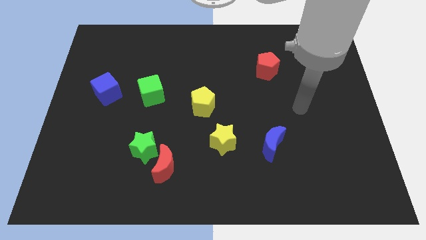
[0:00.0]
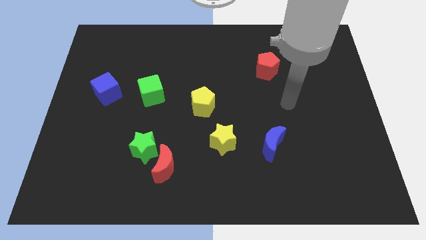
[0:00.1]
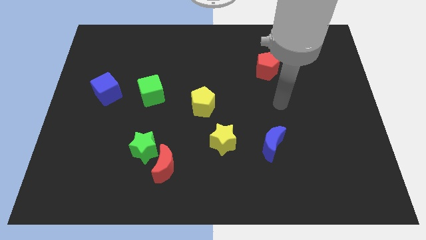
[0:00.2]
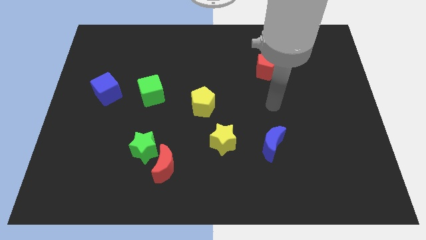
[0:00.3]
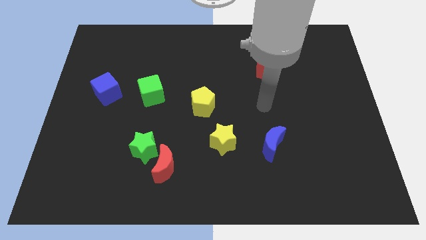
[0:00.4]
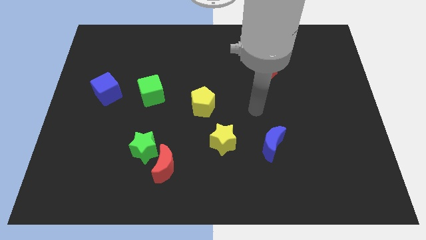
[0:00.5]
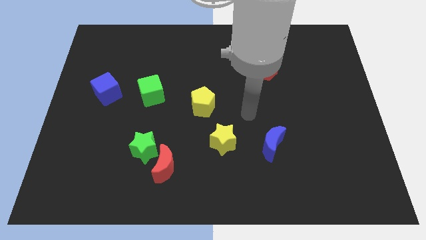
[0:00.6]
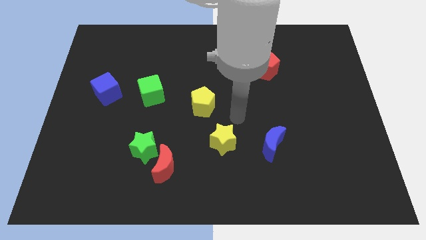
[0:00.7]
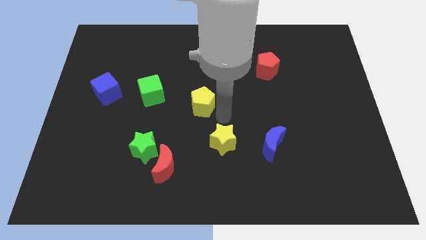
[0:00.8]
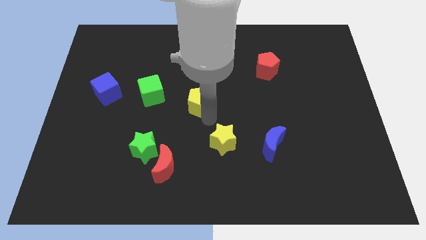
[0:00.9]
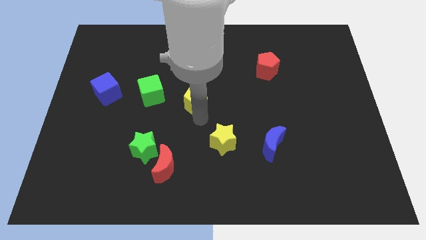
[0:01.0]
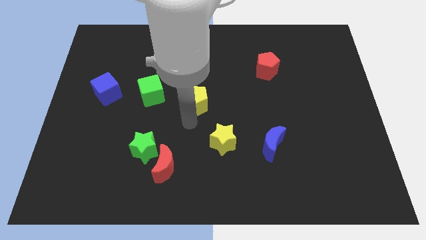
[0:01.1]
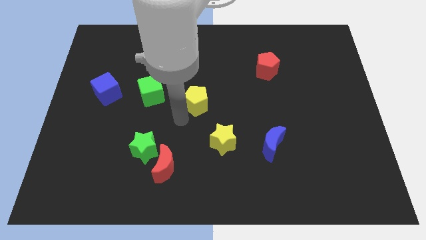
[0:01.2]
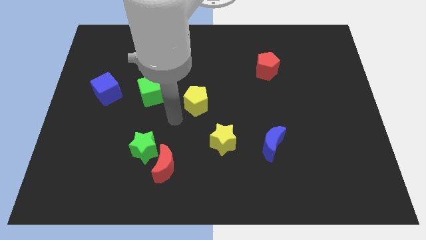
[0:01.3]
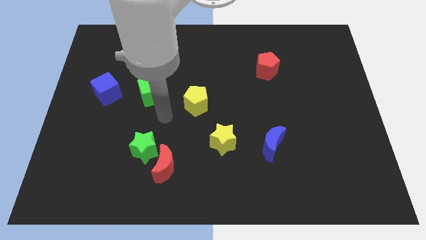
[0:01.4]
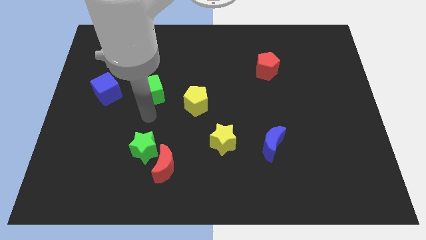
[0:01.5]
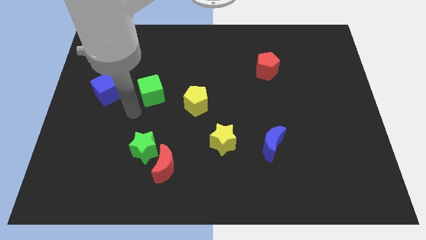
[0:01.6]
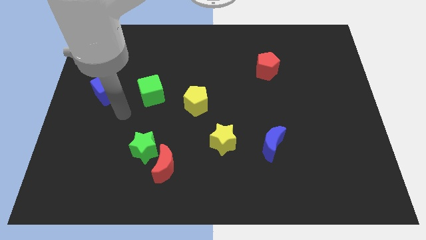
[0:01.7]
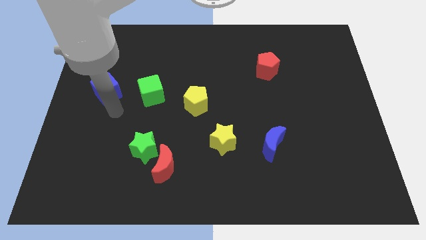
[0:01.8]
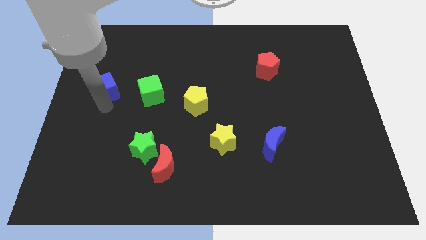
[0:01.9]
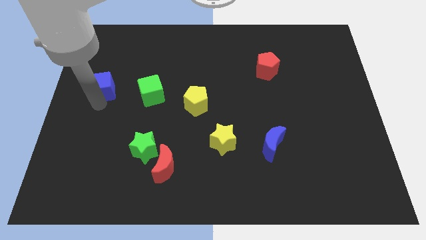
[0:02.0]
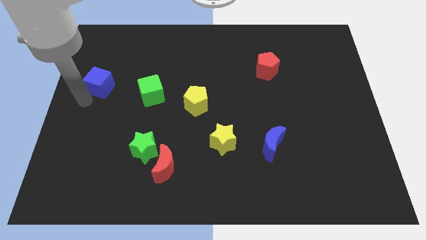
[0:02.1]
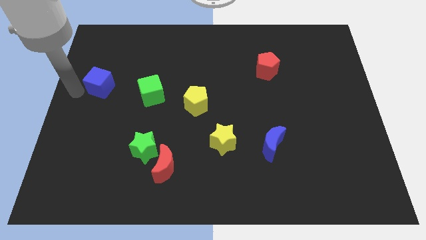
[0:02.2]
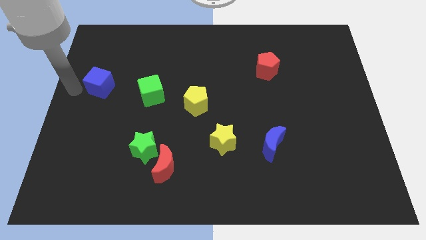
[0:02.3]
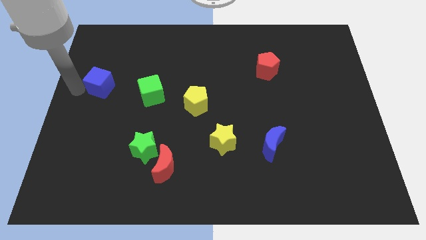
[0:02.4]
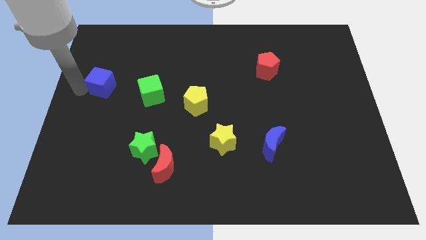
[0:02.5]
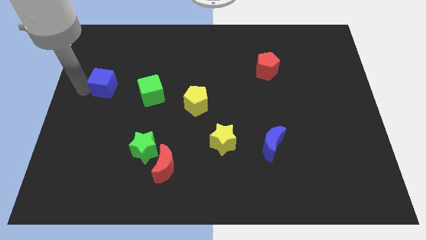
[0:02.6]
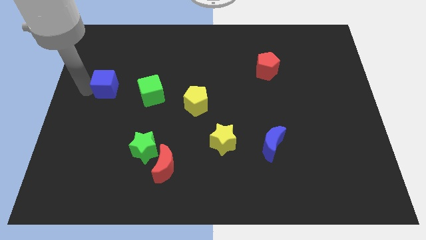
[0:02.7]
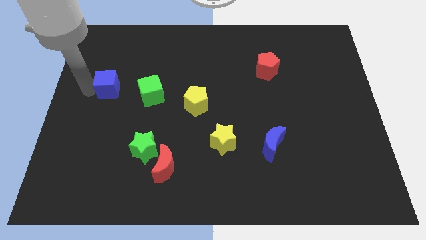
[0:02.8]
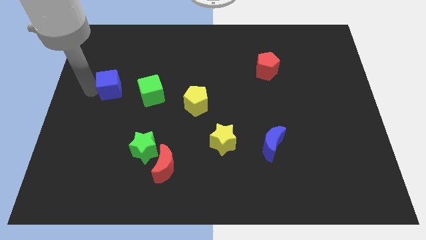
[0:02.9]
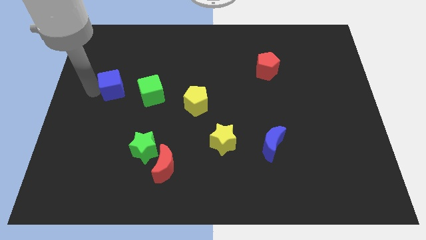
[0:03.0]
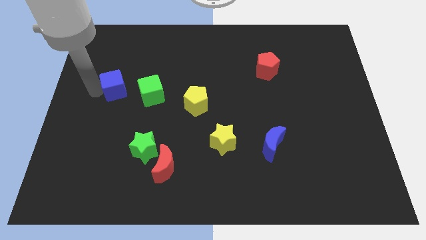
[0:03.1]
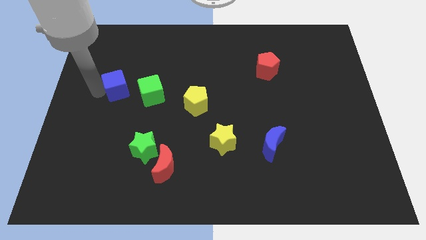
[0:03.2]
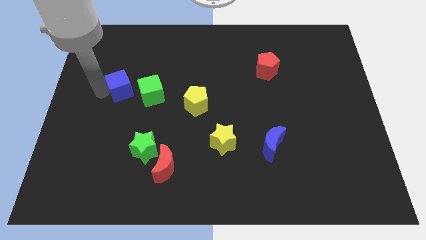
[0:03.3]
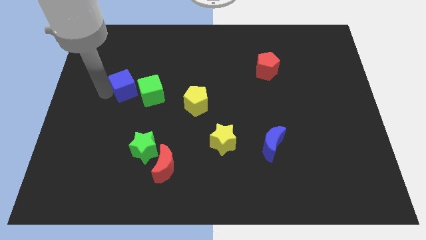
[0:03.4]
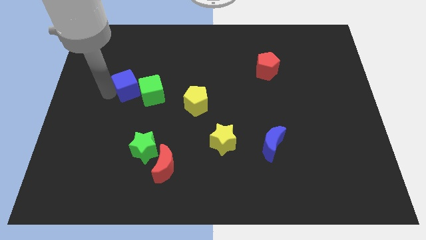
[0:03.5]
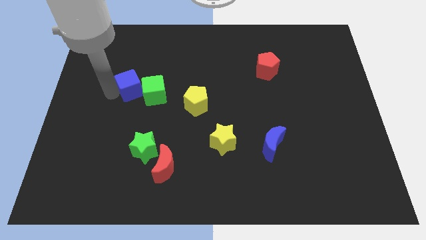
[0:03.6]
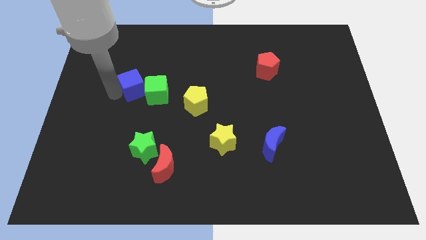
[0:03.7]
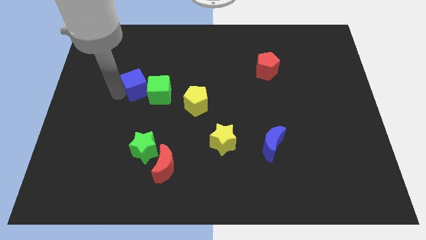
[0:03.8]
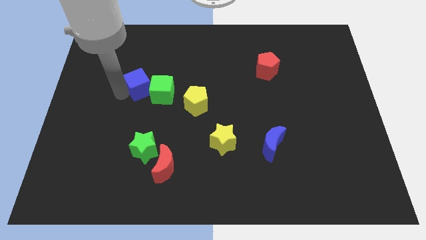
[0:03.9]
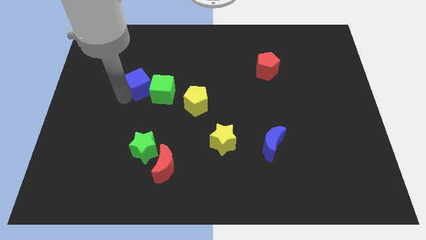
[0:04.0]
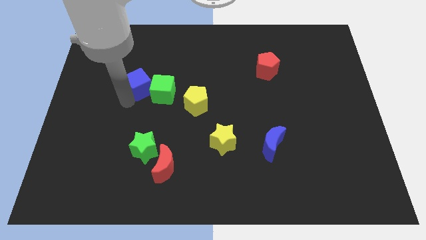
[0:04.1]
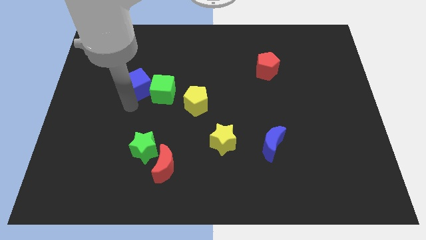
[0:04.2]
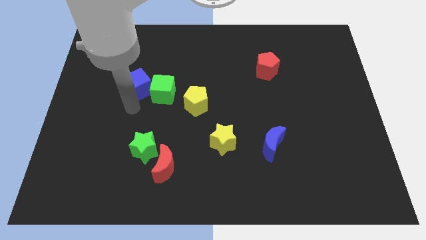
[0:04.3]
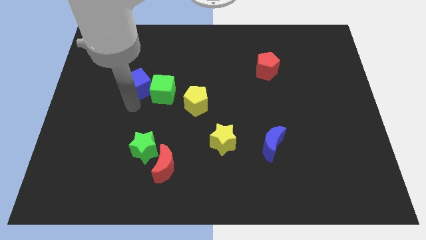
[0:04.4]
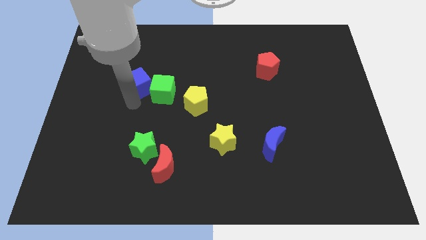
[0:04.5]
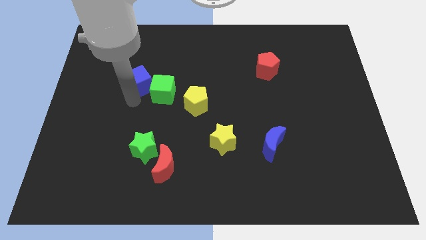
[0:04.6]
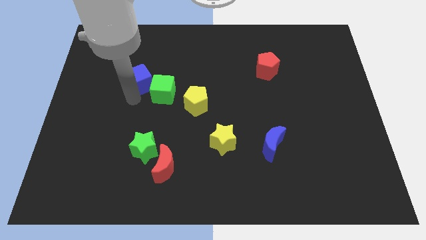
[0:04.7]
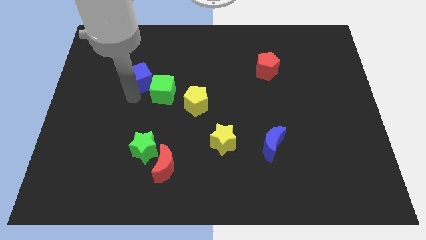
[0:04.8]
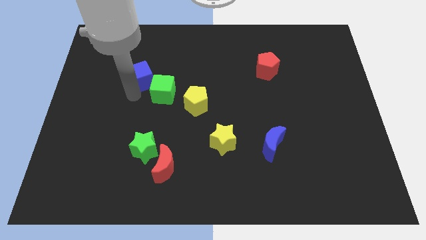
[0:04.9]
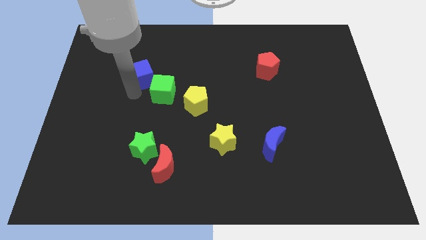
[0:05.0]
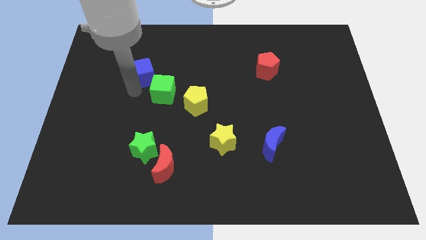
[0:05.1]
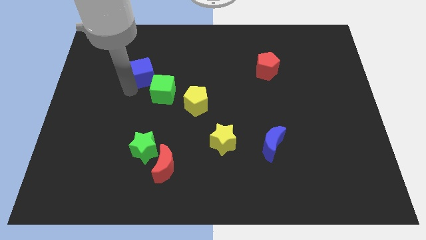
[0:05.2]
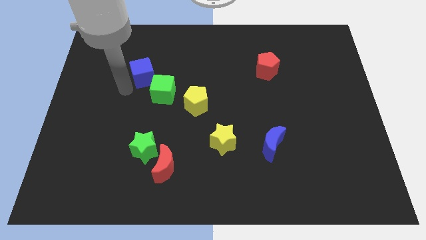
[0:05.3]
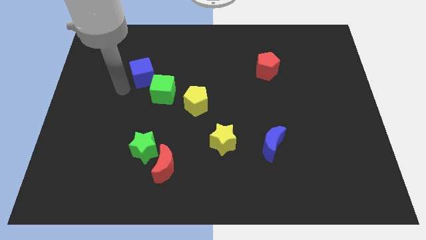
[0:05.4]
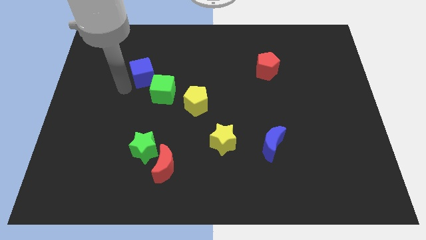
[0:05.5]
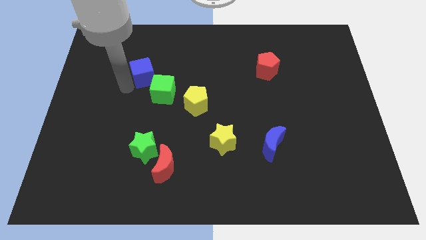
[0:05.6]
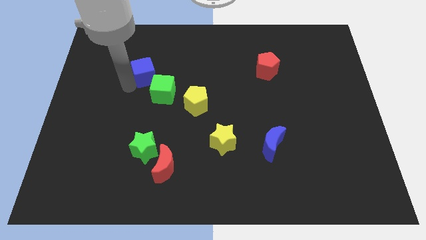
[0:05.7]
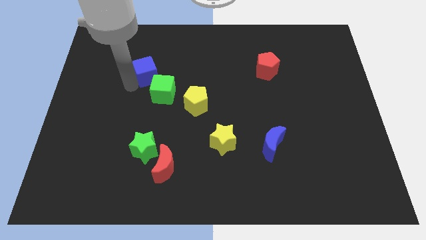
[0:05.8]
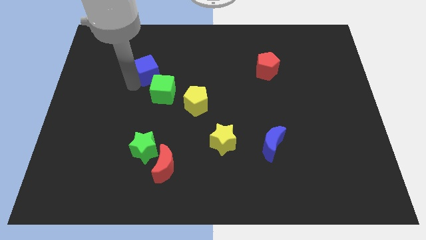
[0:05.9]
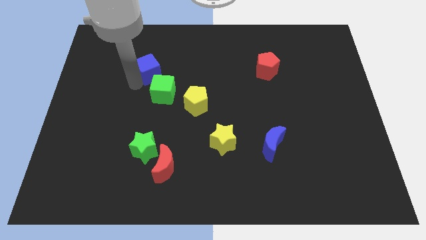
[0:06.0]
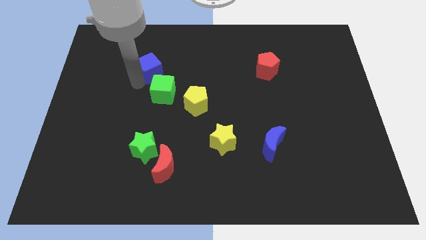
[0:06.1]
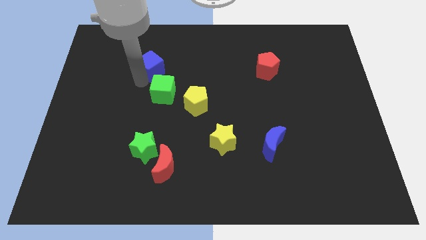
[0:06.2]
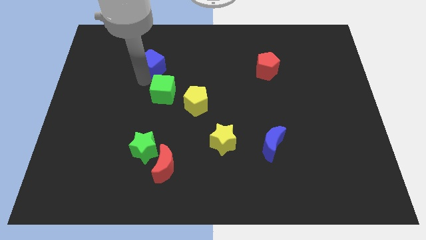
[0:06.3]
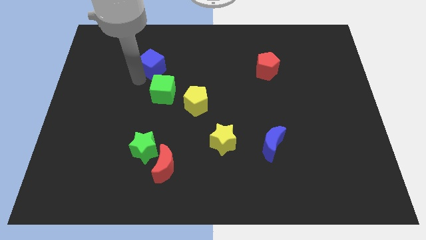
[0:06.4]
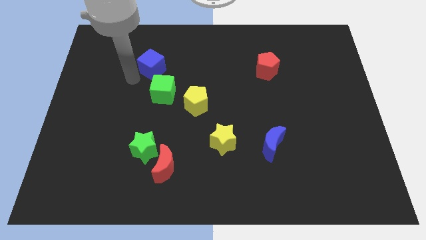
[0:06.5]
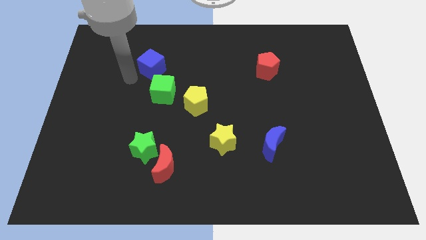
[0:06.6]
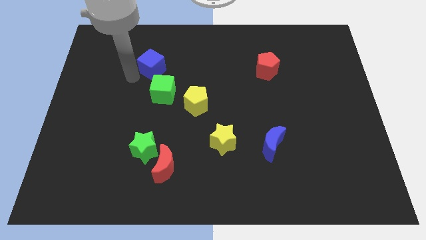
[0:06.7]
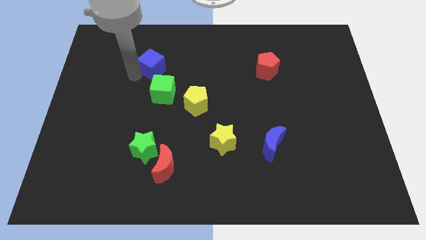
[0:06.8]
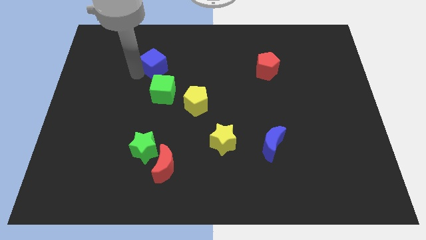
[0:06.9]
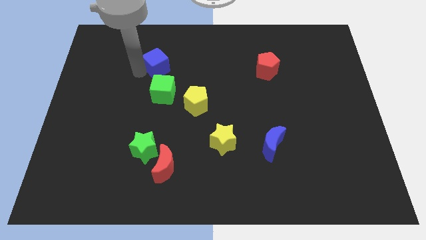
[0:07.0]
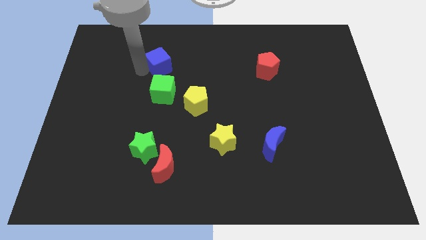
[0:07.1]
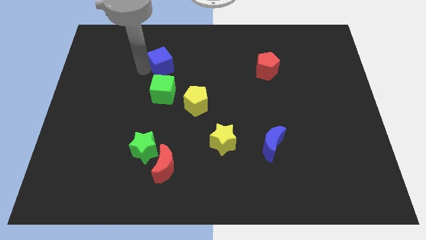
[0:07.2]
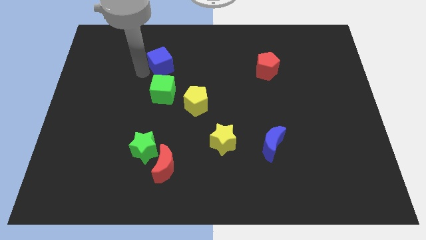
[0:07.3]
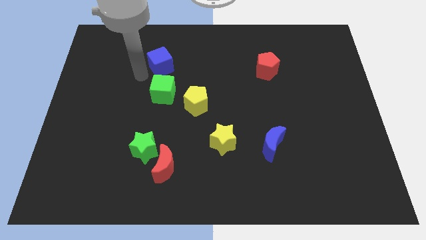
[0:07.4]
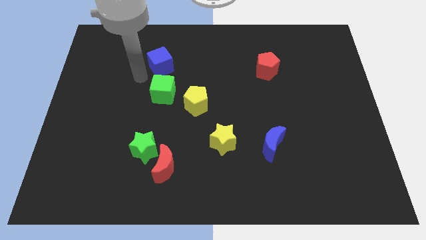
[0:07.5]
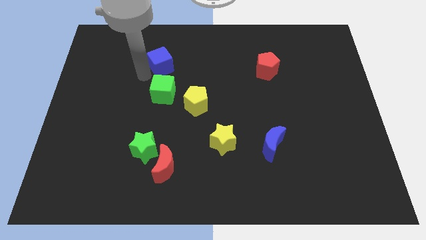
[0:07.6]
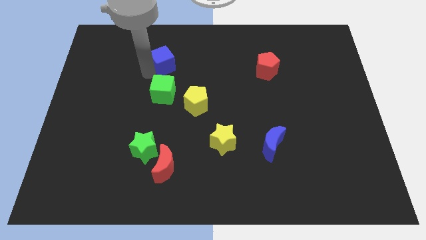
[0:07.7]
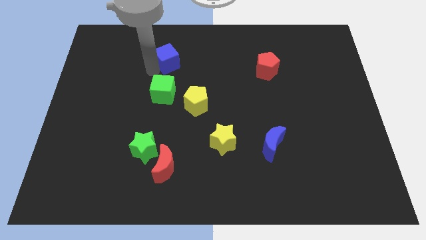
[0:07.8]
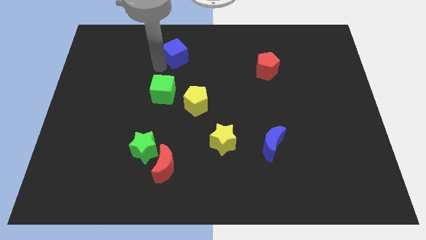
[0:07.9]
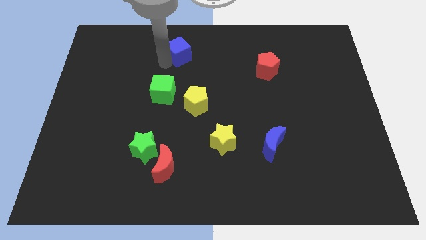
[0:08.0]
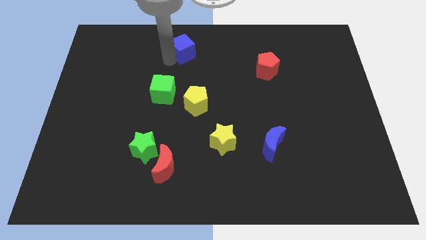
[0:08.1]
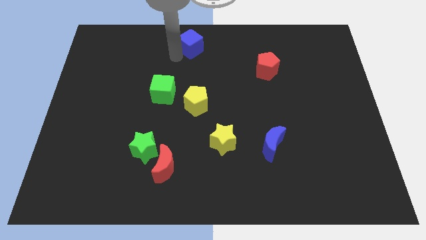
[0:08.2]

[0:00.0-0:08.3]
push the blue cube to the towards your base
